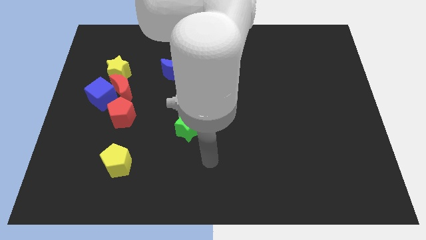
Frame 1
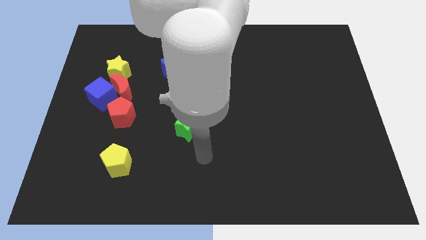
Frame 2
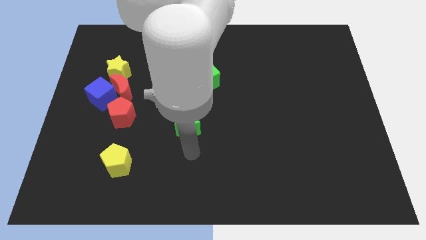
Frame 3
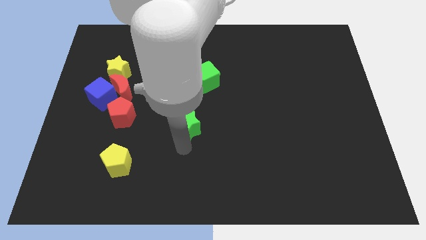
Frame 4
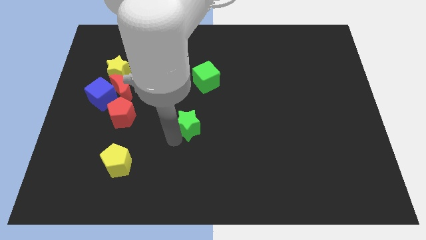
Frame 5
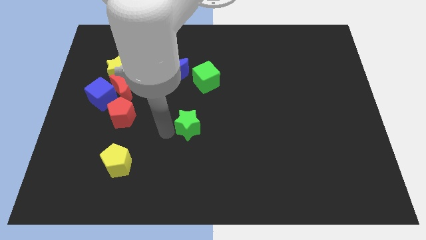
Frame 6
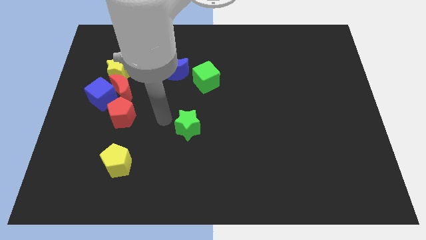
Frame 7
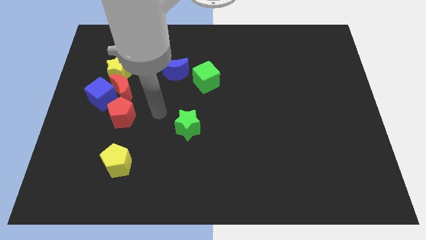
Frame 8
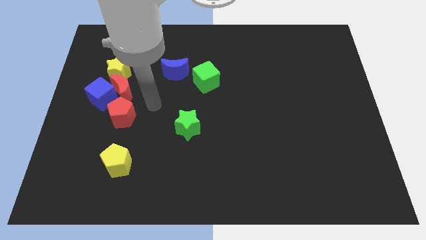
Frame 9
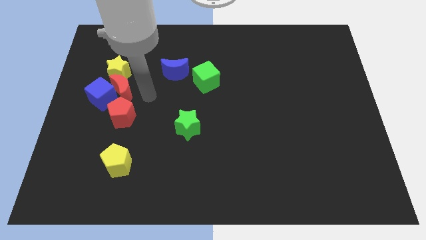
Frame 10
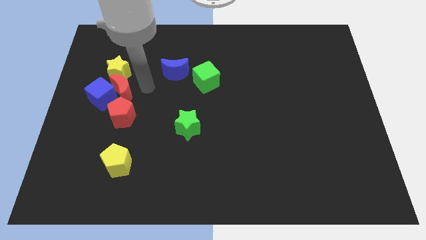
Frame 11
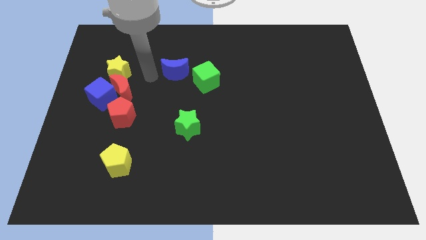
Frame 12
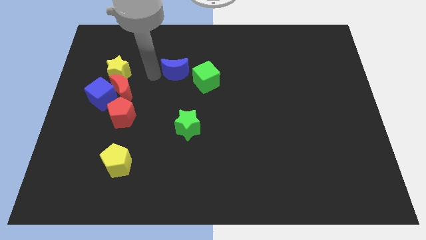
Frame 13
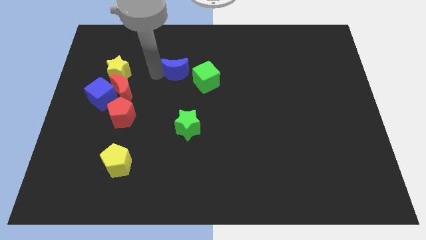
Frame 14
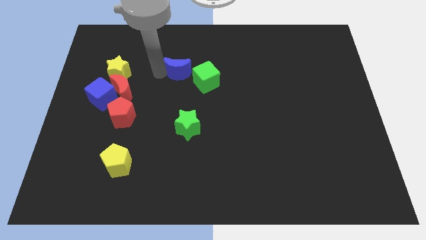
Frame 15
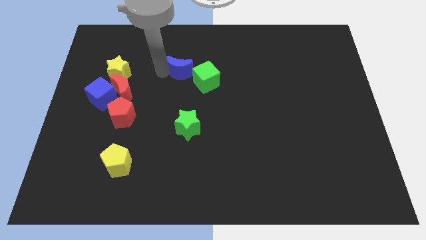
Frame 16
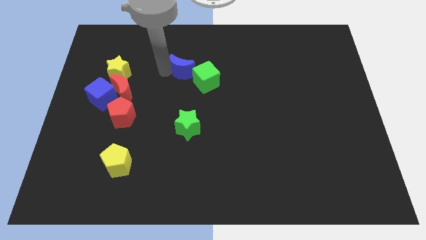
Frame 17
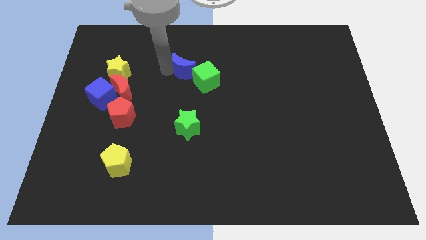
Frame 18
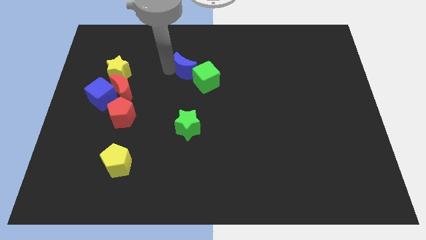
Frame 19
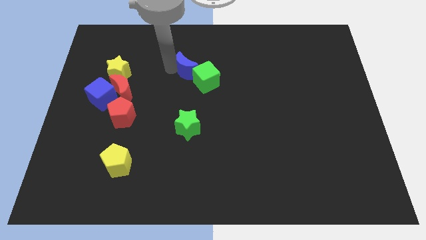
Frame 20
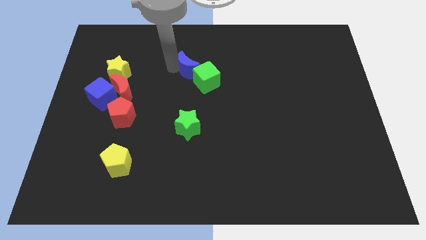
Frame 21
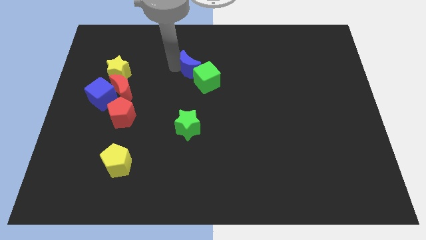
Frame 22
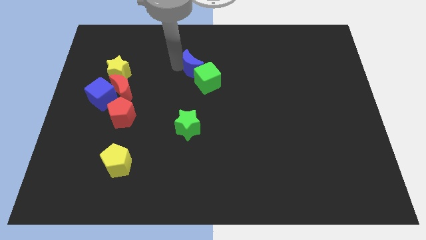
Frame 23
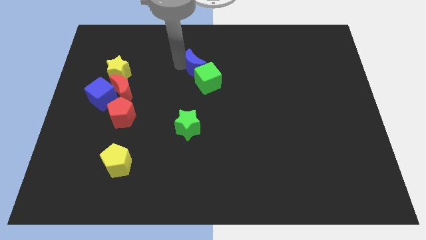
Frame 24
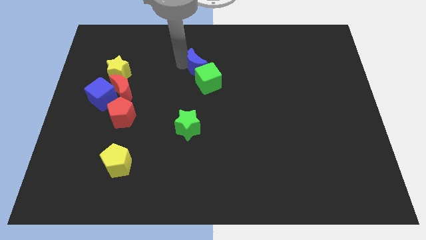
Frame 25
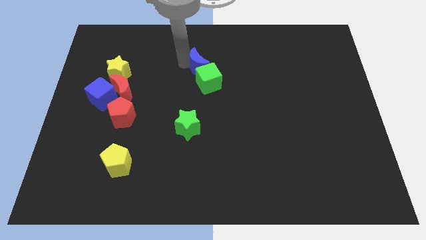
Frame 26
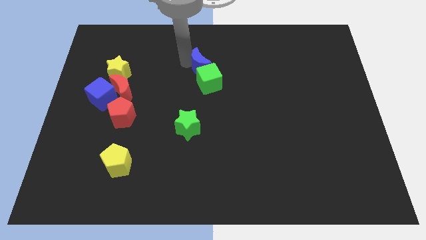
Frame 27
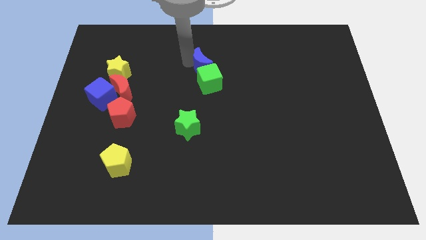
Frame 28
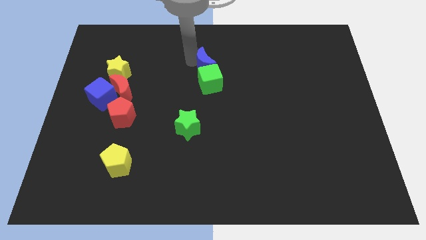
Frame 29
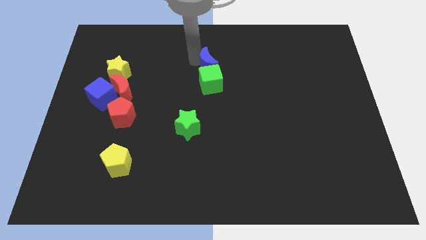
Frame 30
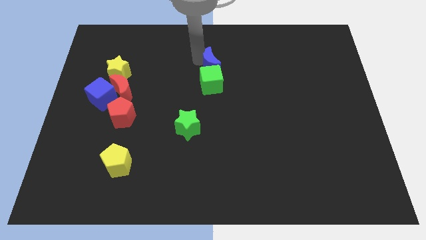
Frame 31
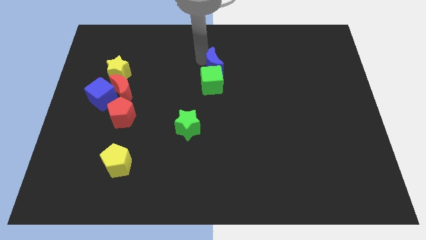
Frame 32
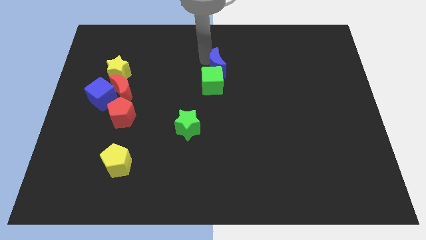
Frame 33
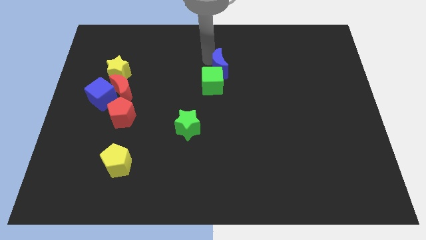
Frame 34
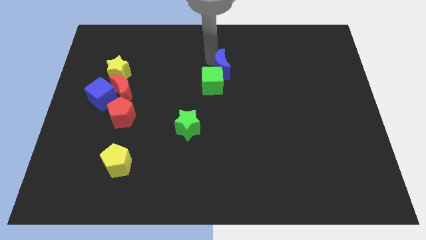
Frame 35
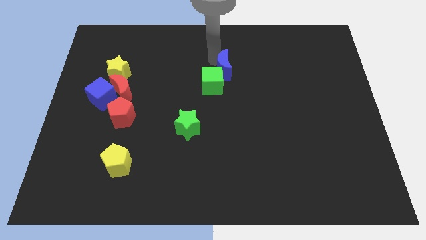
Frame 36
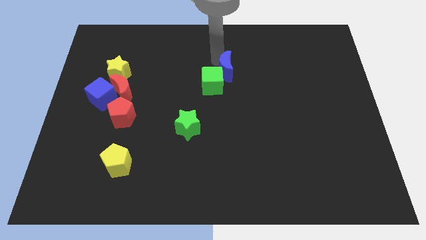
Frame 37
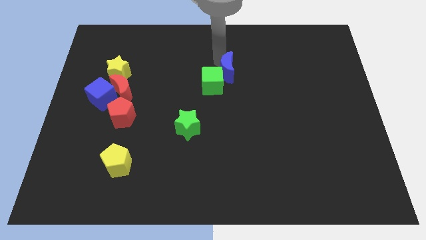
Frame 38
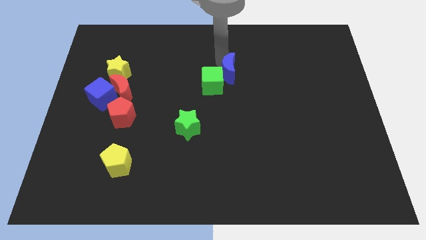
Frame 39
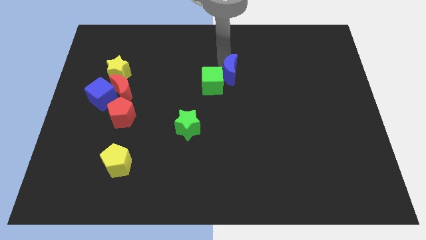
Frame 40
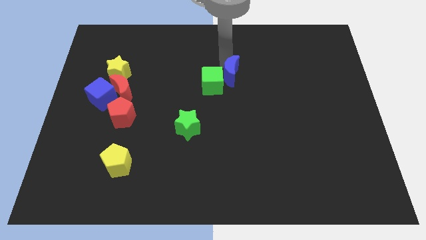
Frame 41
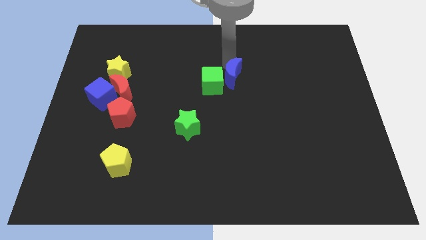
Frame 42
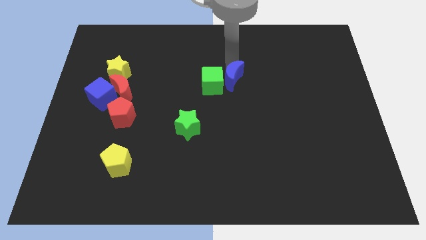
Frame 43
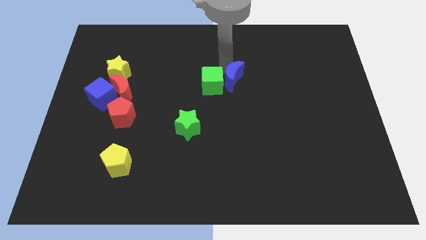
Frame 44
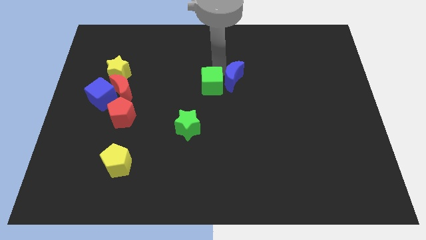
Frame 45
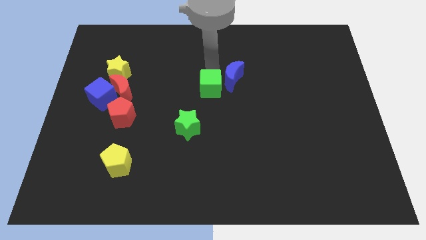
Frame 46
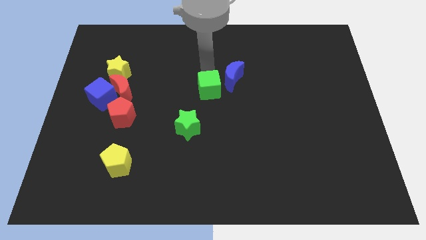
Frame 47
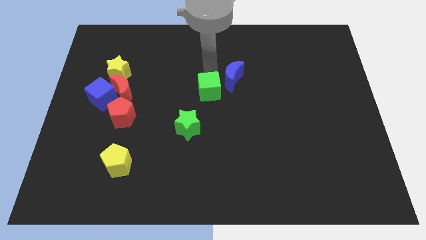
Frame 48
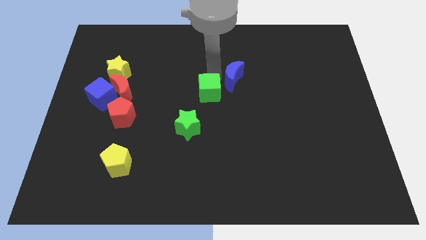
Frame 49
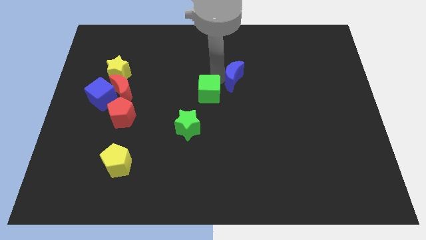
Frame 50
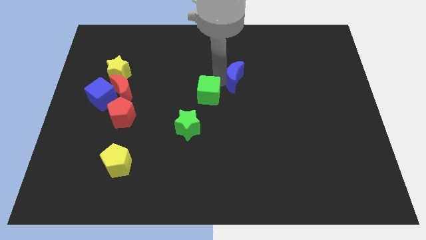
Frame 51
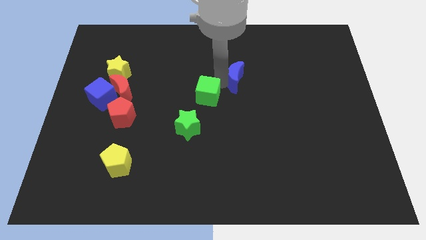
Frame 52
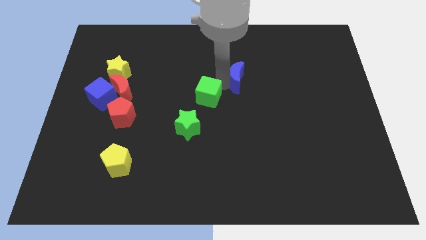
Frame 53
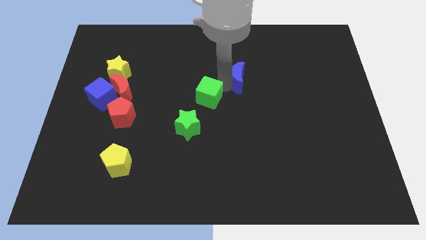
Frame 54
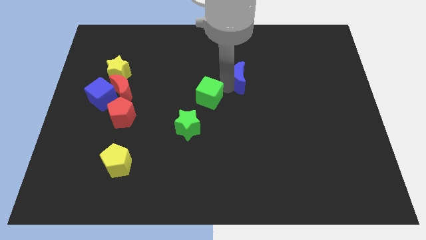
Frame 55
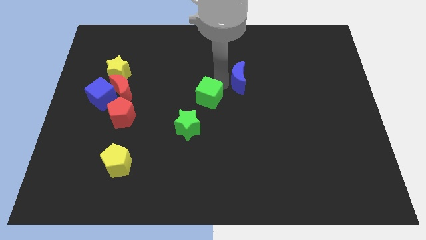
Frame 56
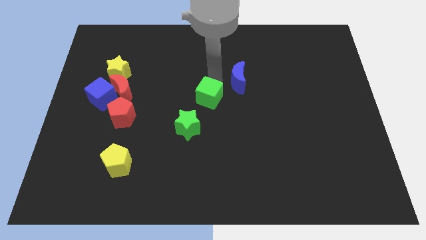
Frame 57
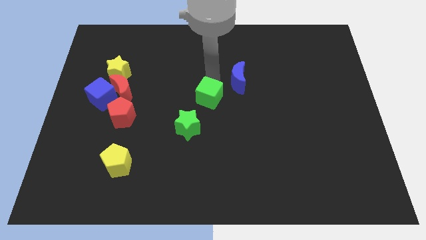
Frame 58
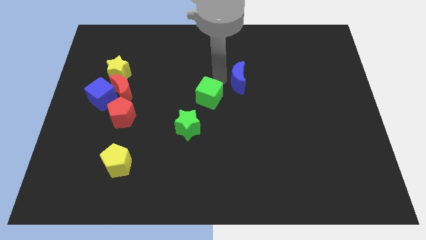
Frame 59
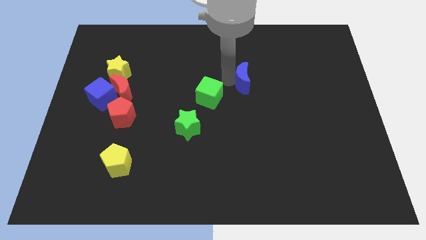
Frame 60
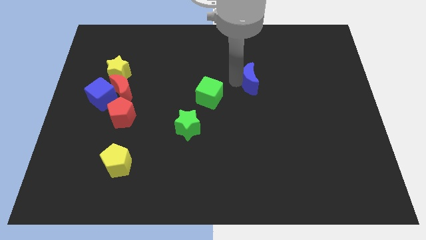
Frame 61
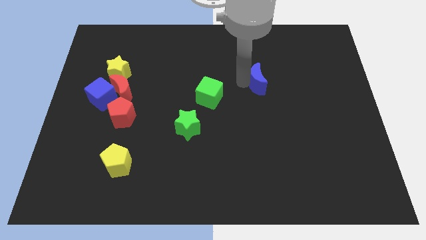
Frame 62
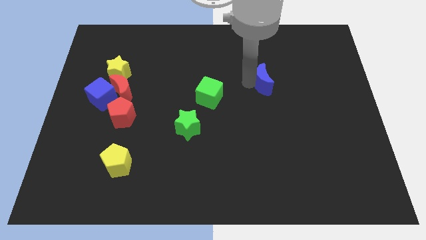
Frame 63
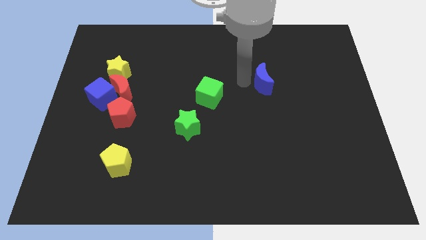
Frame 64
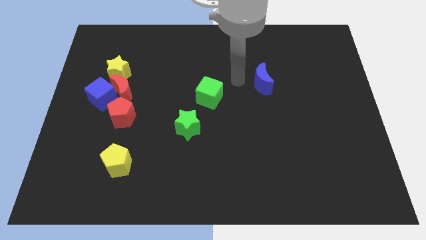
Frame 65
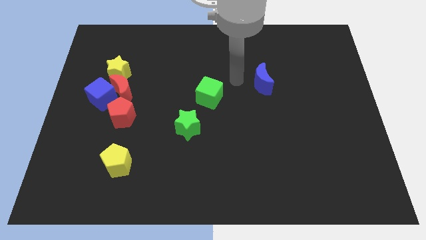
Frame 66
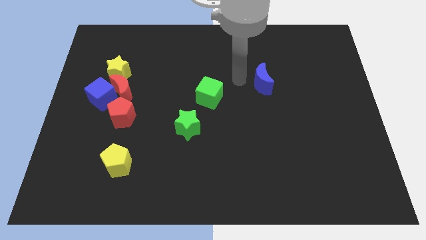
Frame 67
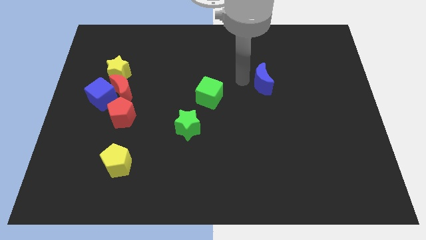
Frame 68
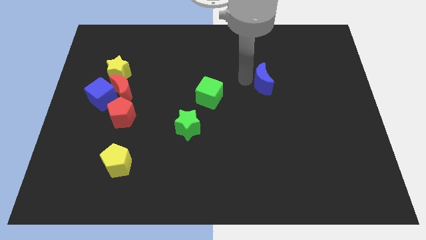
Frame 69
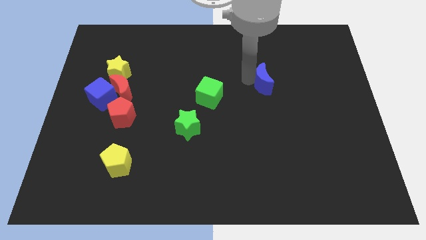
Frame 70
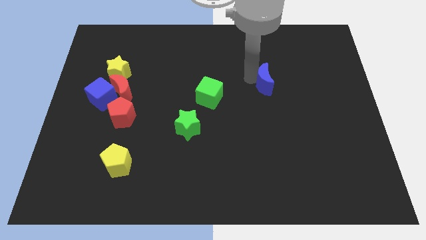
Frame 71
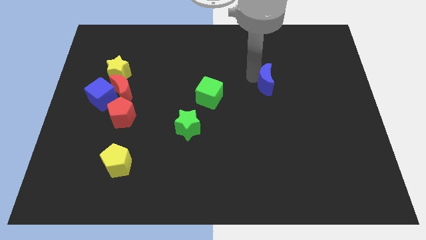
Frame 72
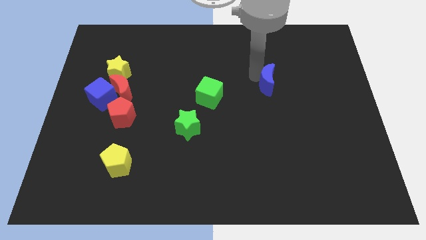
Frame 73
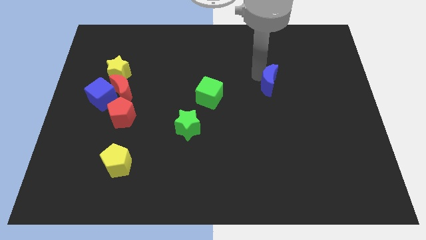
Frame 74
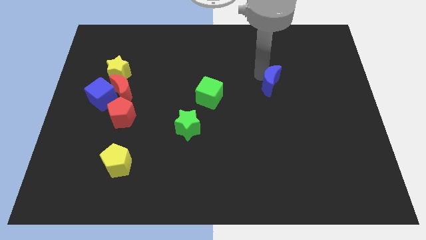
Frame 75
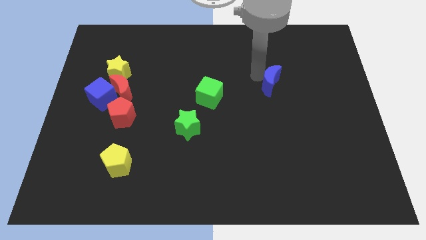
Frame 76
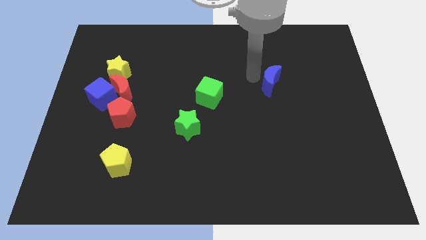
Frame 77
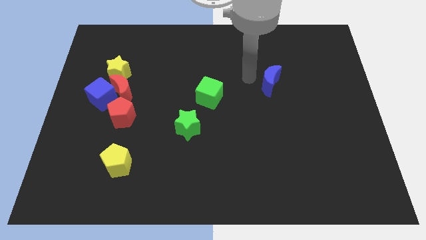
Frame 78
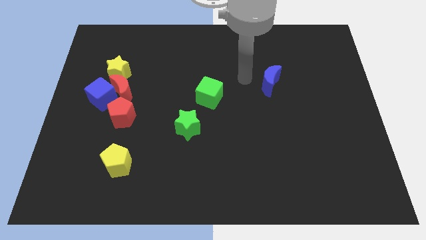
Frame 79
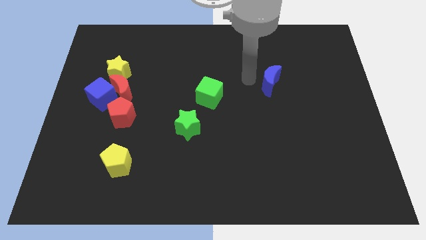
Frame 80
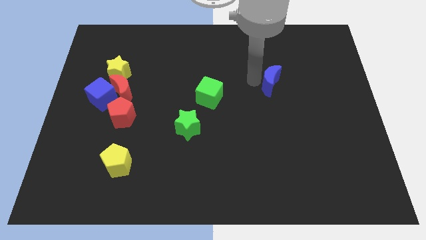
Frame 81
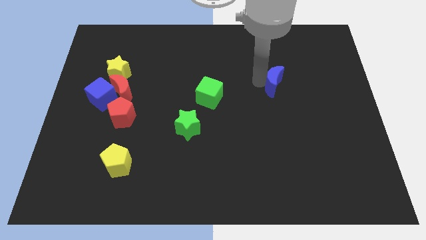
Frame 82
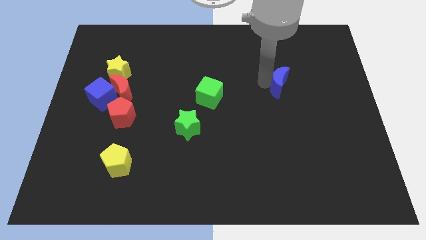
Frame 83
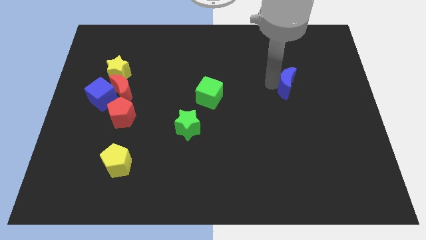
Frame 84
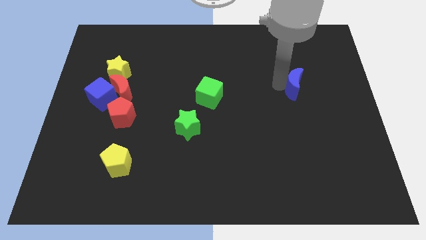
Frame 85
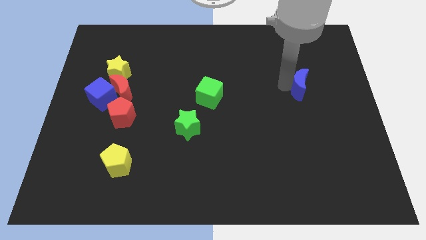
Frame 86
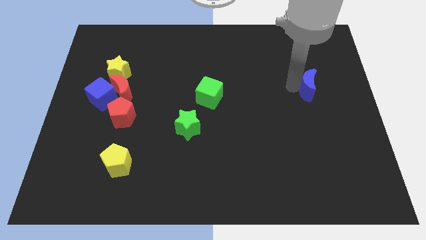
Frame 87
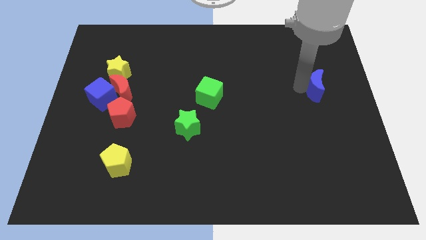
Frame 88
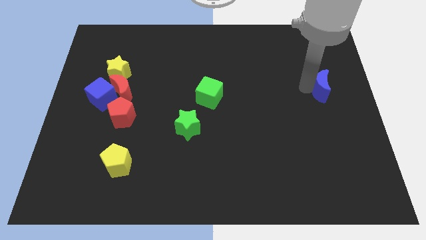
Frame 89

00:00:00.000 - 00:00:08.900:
push the blue moon to the right side of the board
